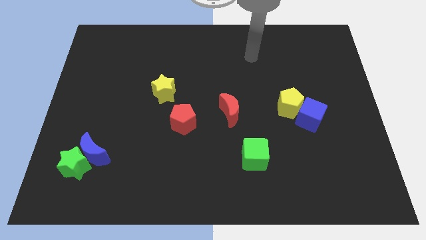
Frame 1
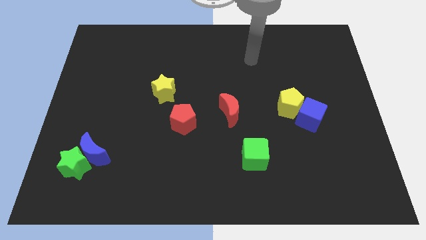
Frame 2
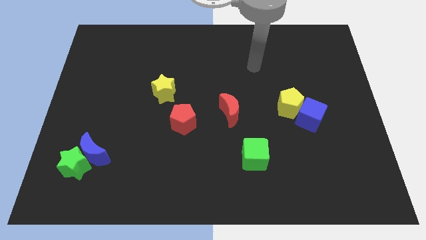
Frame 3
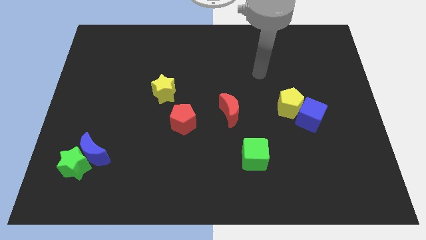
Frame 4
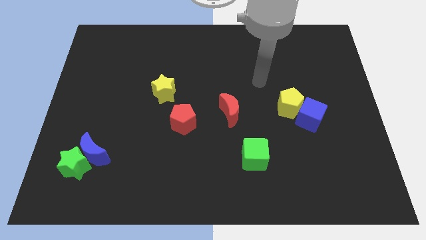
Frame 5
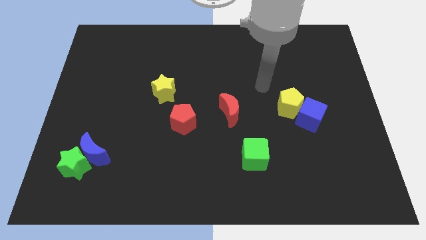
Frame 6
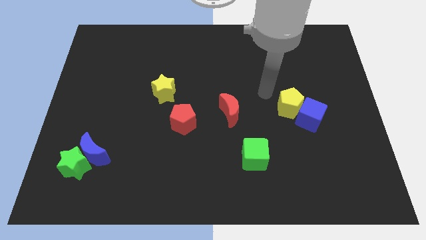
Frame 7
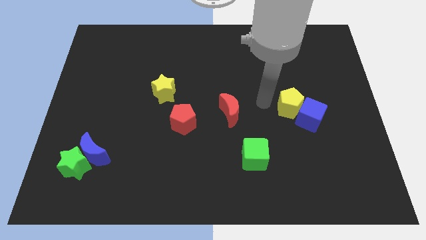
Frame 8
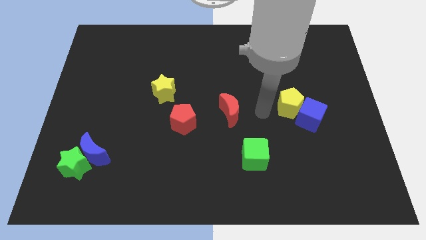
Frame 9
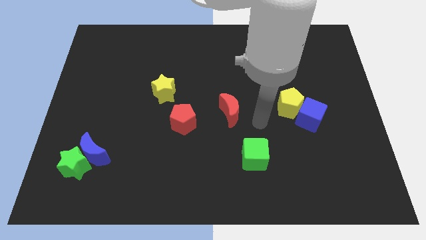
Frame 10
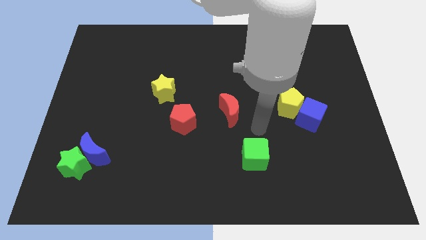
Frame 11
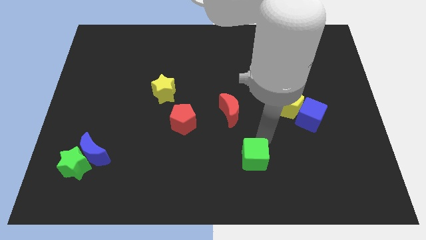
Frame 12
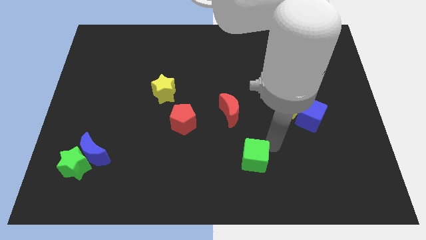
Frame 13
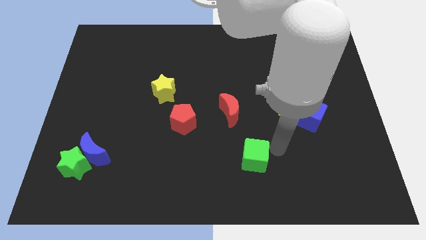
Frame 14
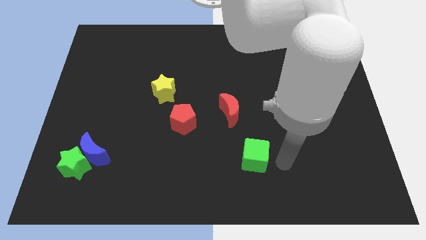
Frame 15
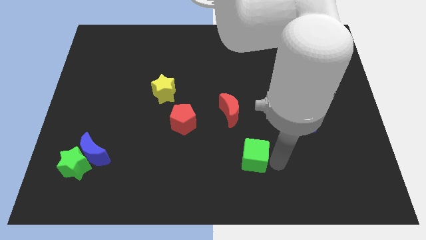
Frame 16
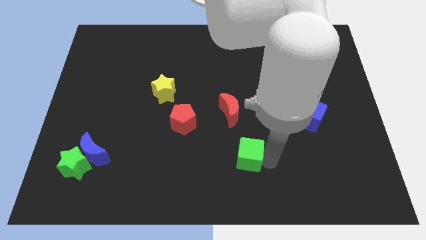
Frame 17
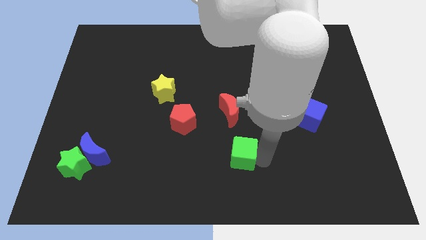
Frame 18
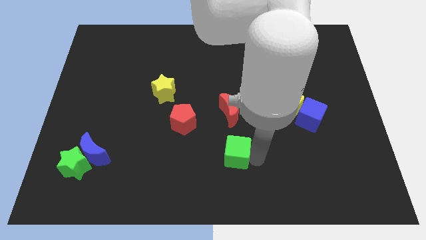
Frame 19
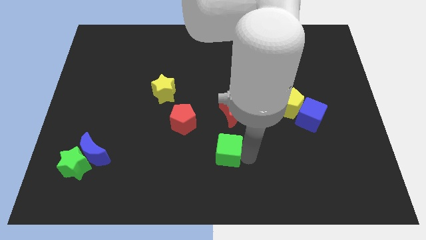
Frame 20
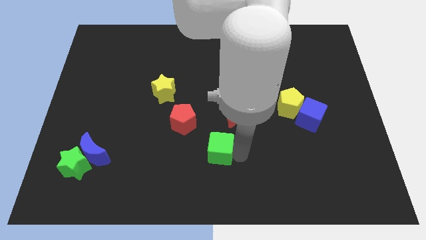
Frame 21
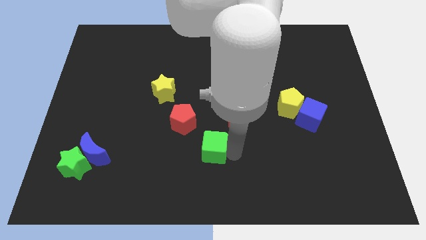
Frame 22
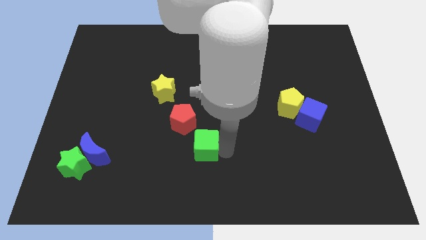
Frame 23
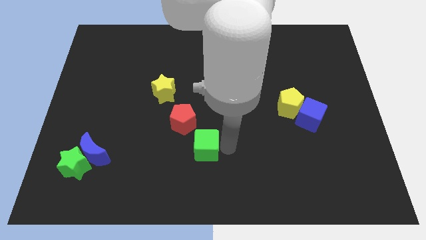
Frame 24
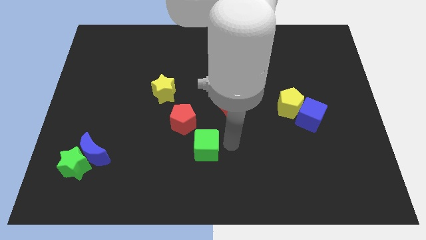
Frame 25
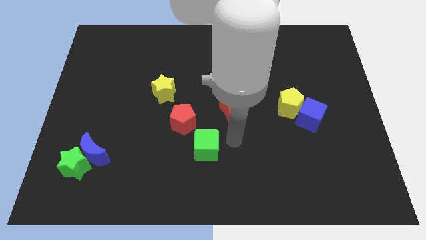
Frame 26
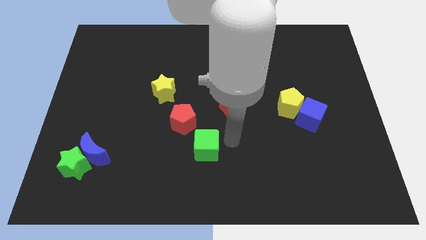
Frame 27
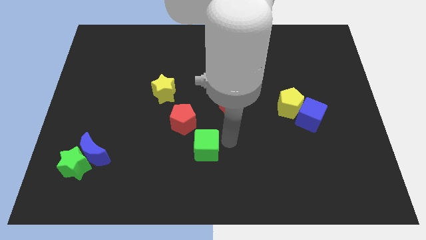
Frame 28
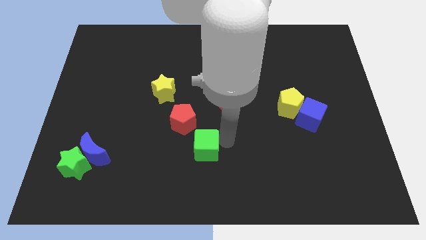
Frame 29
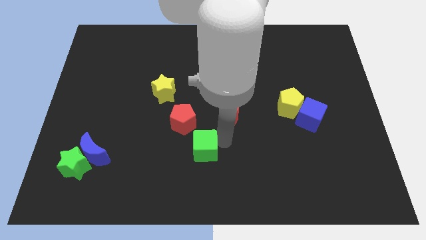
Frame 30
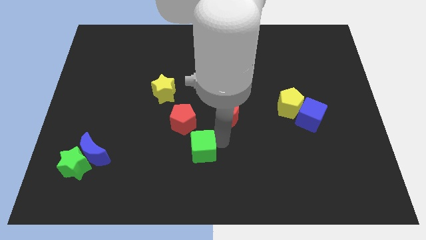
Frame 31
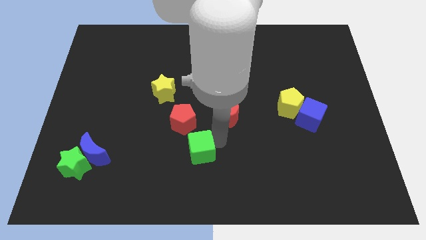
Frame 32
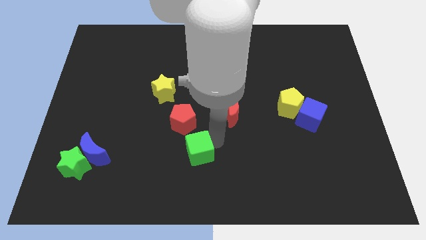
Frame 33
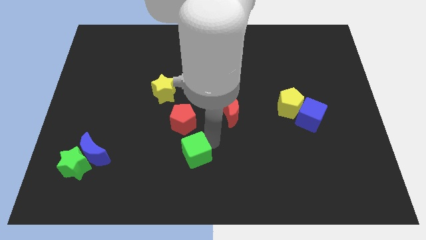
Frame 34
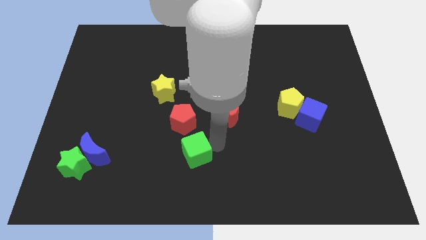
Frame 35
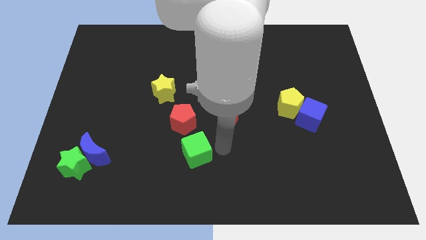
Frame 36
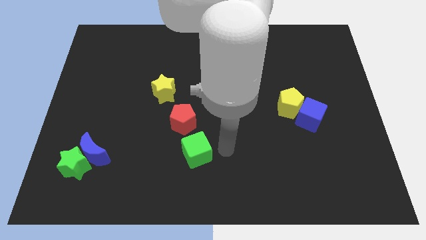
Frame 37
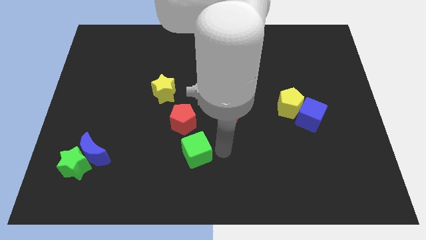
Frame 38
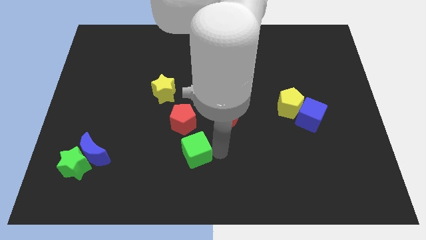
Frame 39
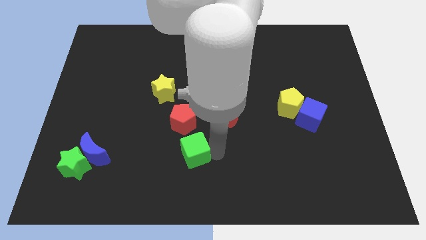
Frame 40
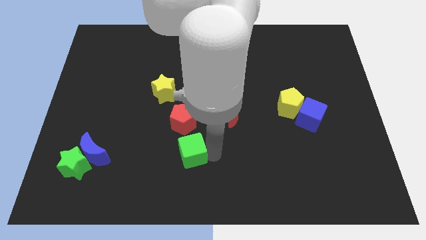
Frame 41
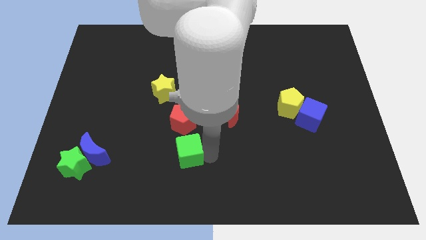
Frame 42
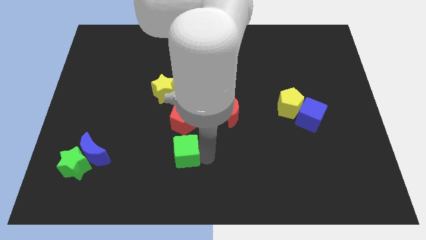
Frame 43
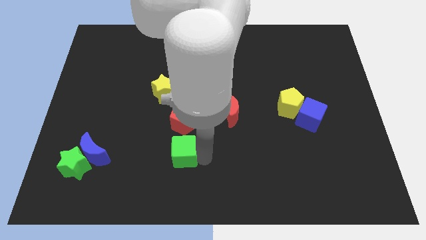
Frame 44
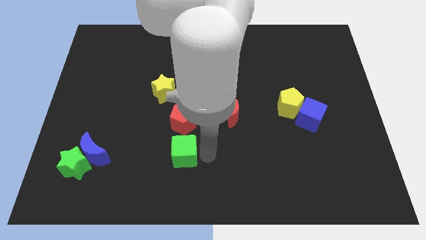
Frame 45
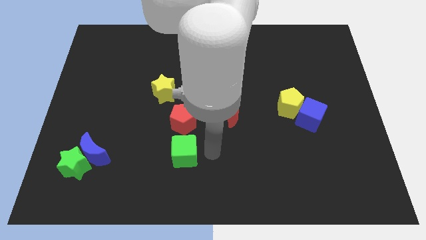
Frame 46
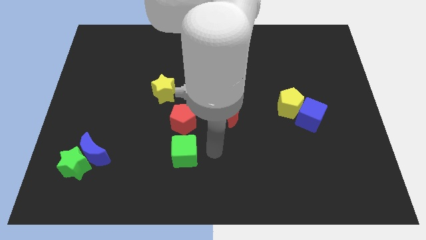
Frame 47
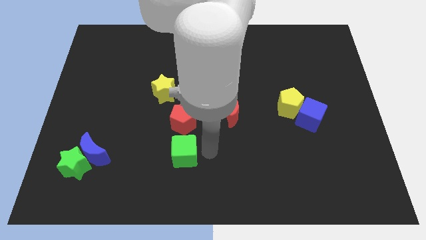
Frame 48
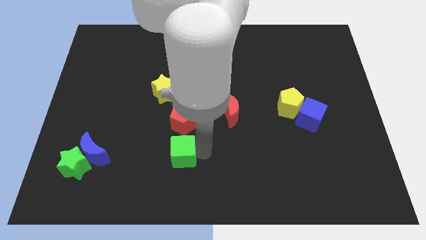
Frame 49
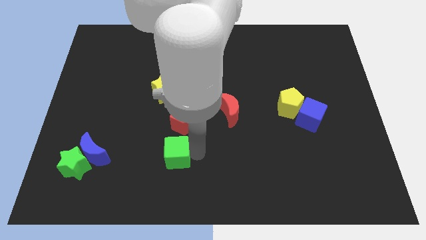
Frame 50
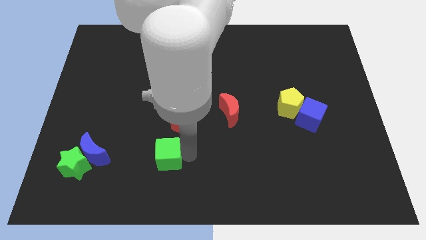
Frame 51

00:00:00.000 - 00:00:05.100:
move the green cube right of the blue moon

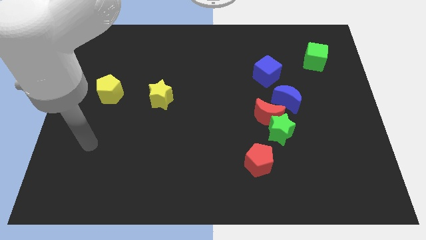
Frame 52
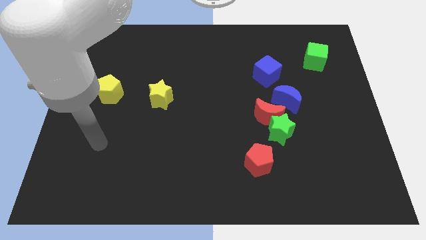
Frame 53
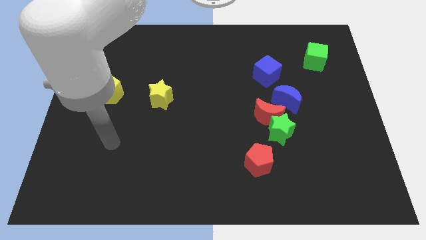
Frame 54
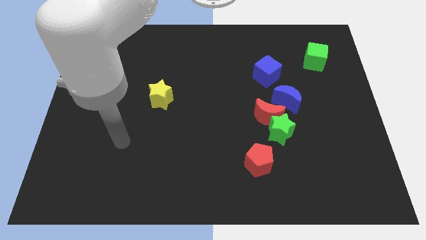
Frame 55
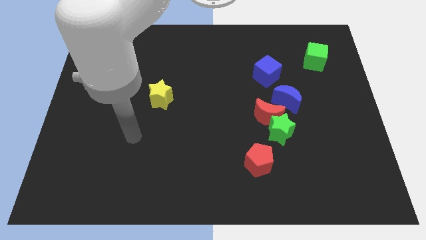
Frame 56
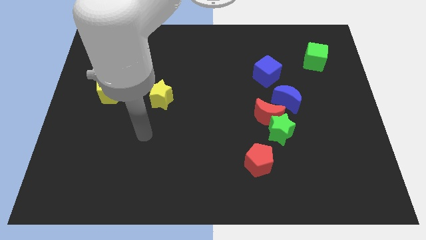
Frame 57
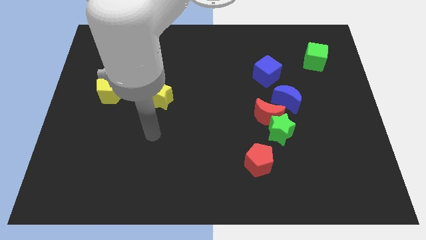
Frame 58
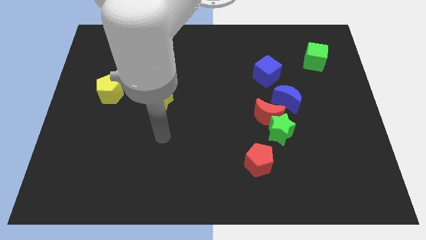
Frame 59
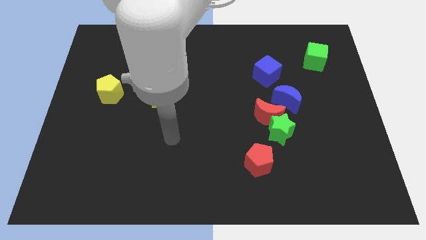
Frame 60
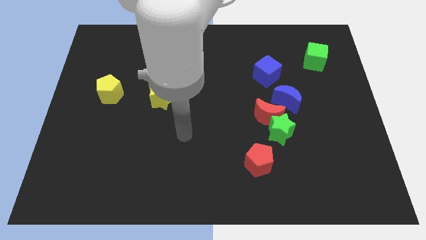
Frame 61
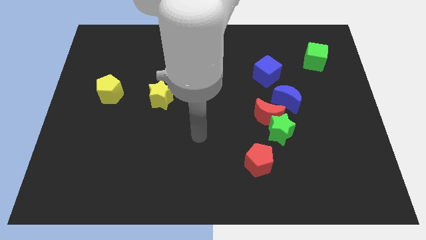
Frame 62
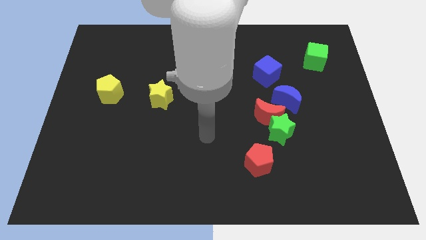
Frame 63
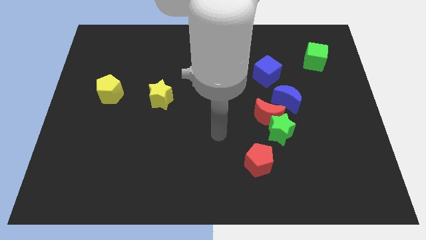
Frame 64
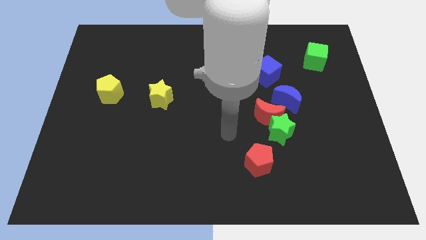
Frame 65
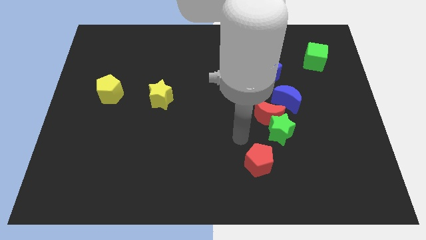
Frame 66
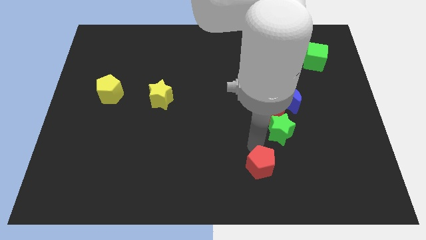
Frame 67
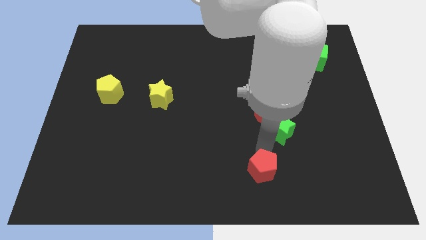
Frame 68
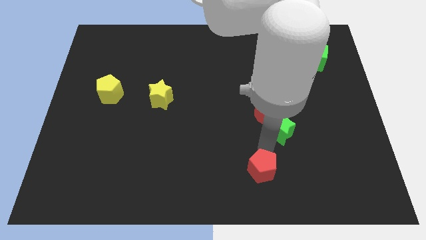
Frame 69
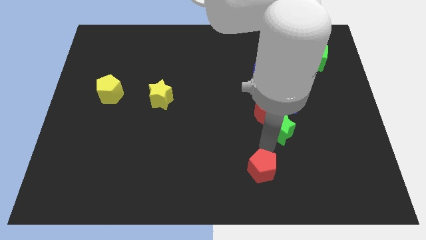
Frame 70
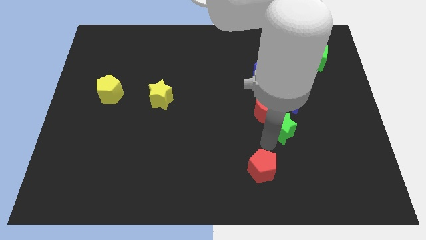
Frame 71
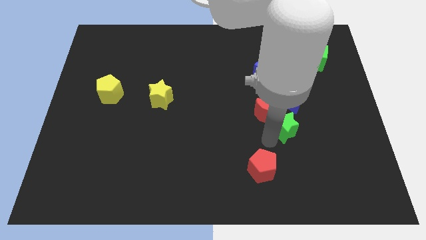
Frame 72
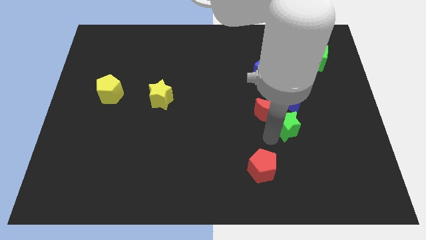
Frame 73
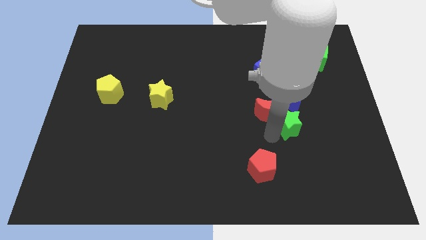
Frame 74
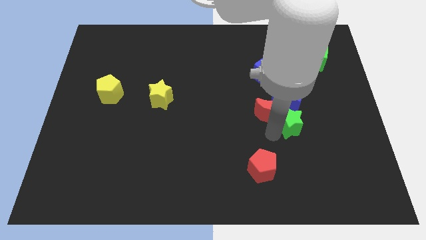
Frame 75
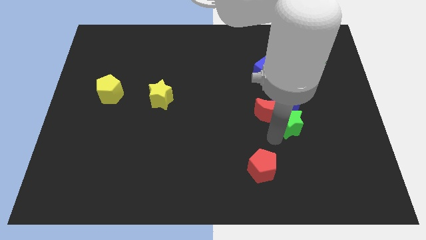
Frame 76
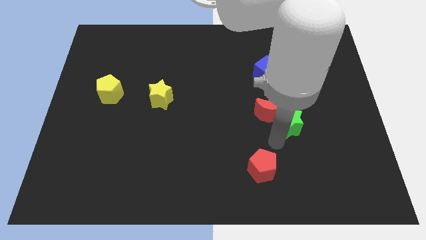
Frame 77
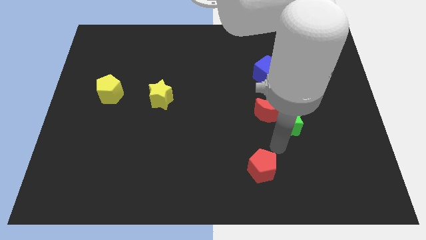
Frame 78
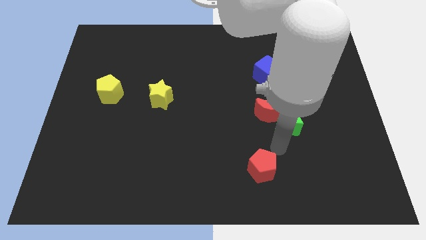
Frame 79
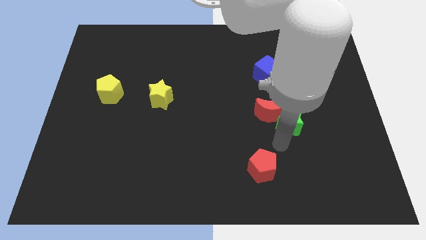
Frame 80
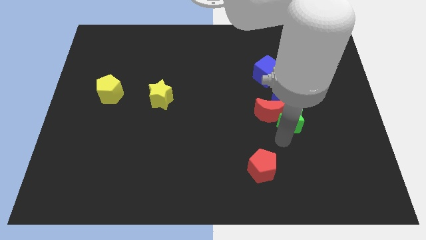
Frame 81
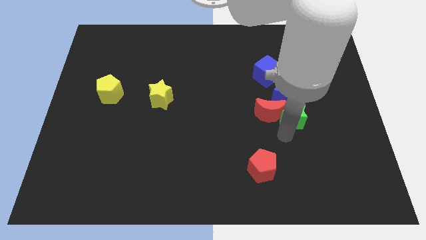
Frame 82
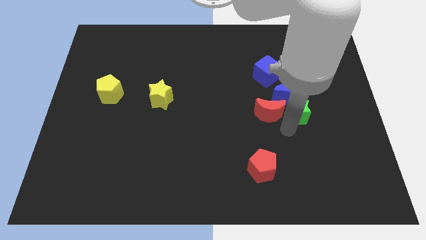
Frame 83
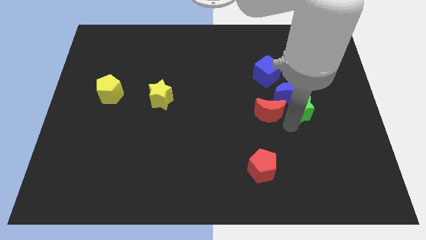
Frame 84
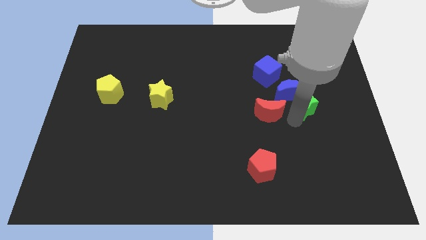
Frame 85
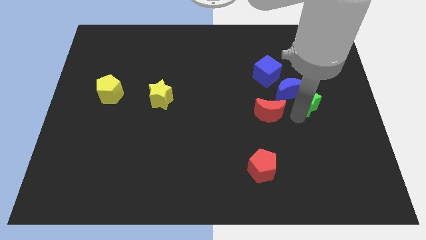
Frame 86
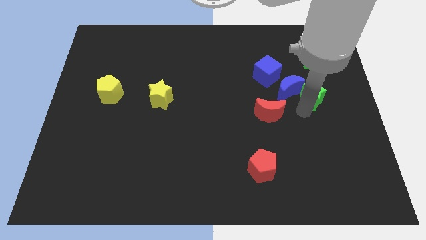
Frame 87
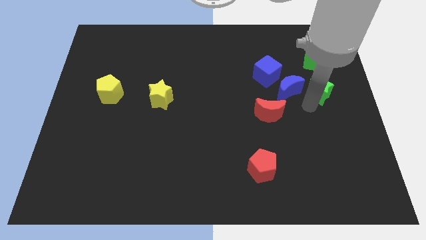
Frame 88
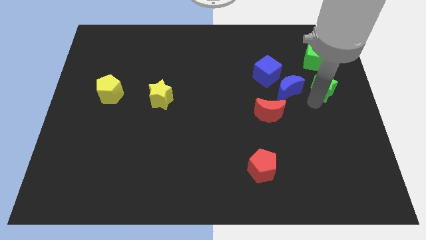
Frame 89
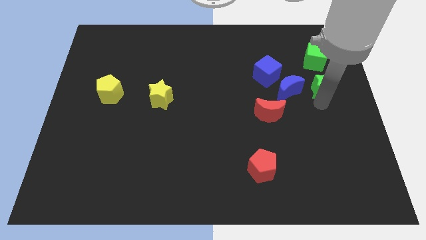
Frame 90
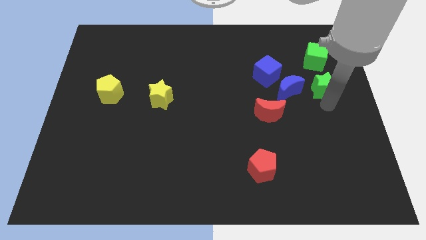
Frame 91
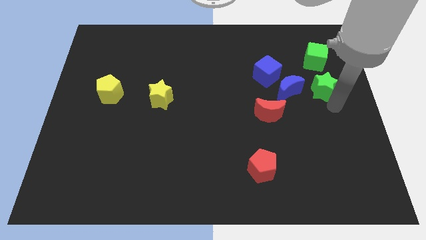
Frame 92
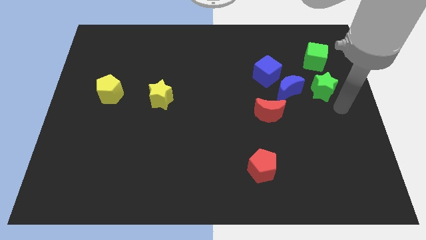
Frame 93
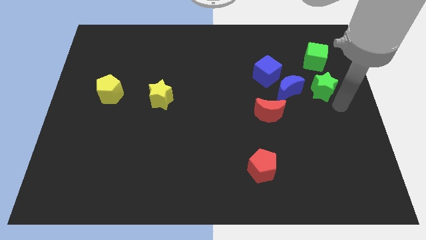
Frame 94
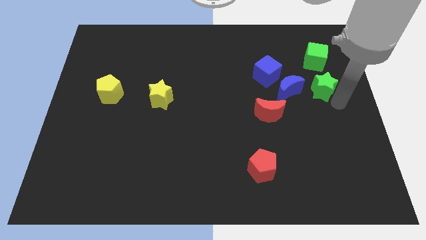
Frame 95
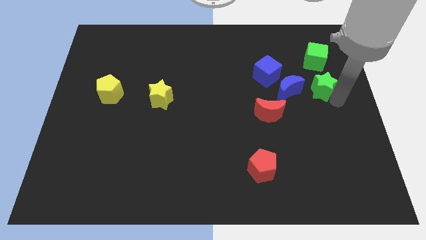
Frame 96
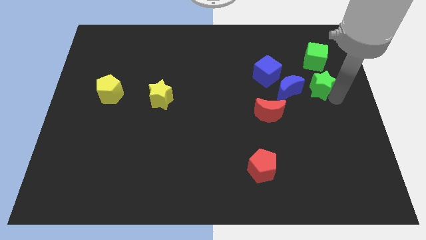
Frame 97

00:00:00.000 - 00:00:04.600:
push the green star to the right side of the blue cube
